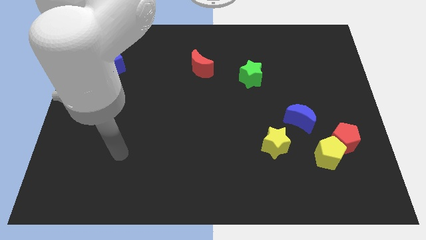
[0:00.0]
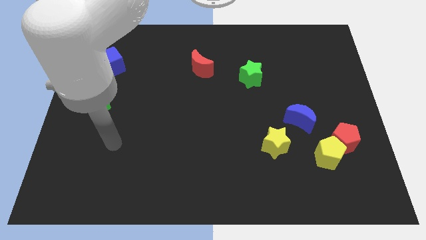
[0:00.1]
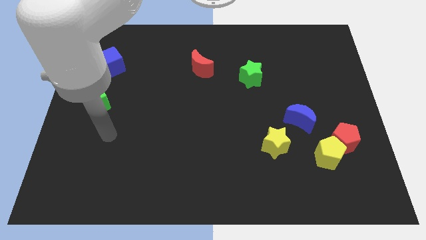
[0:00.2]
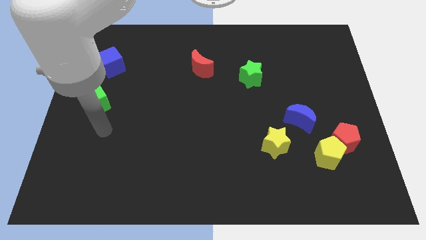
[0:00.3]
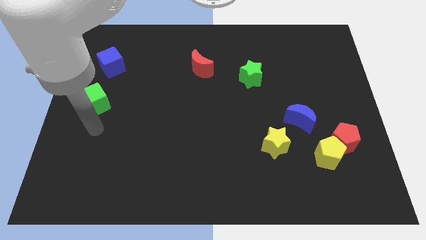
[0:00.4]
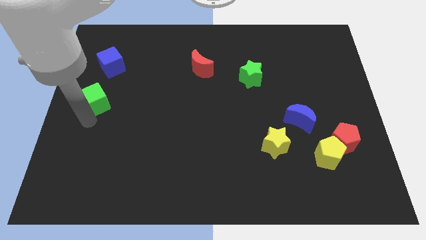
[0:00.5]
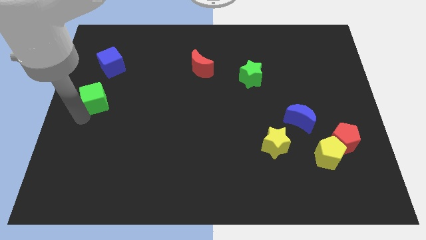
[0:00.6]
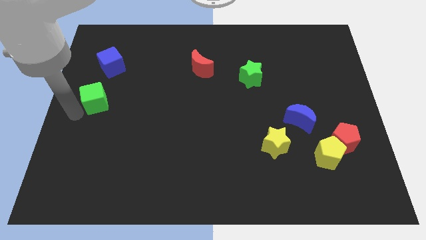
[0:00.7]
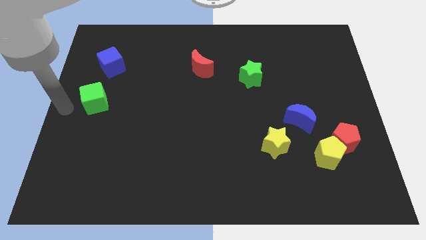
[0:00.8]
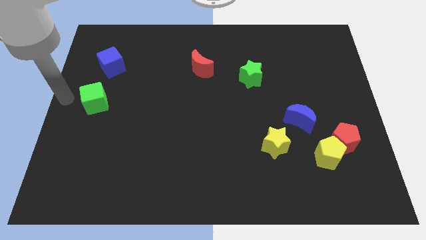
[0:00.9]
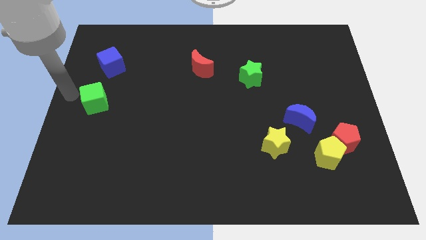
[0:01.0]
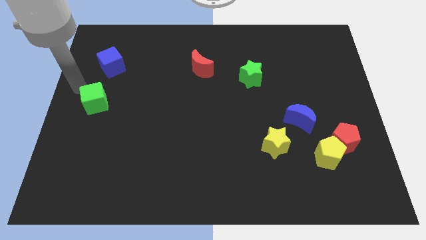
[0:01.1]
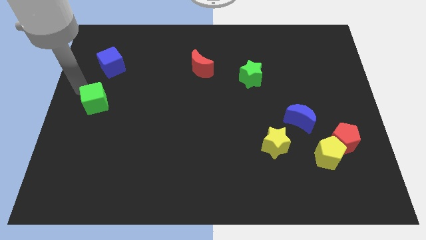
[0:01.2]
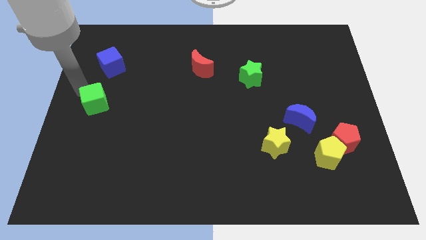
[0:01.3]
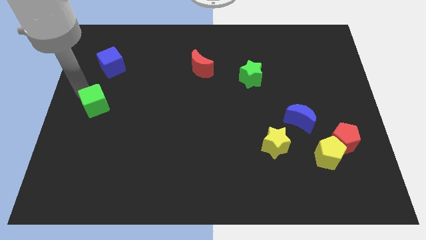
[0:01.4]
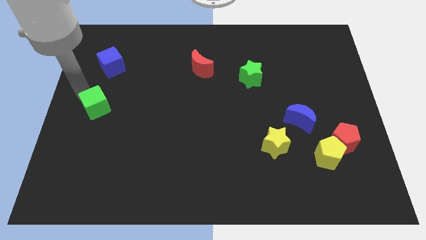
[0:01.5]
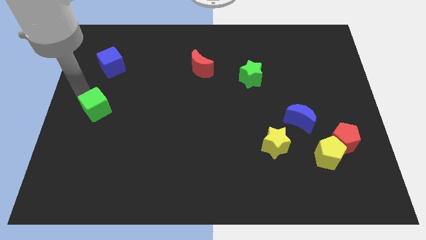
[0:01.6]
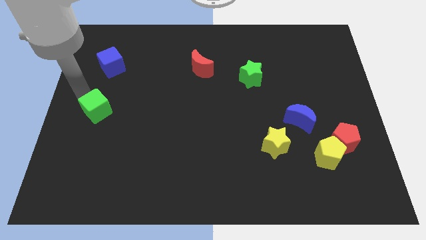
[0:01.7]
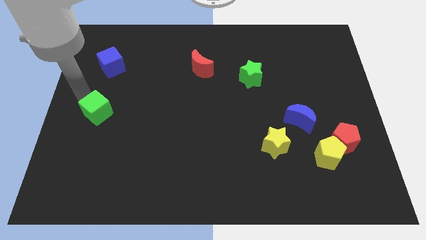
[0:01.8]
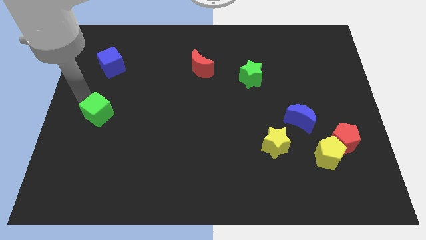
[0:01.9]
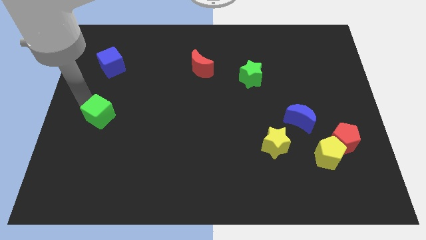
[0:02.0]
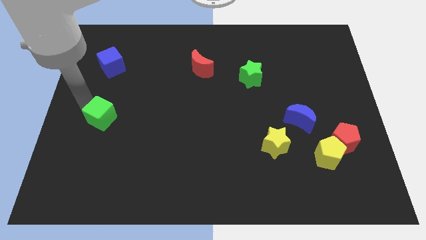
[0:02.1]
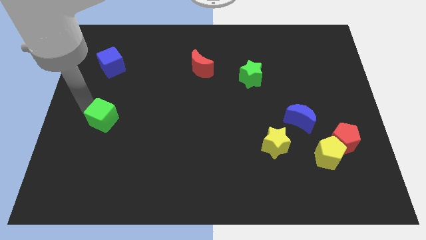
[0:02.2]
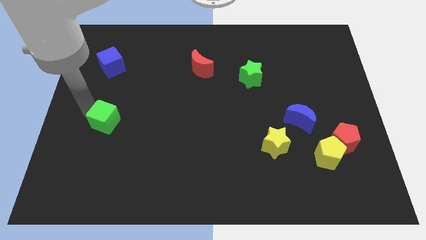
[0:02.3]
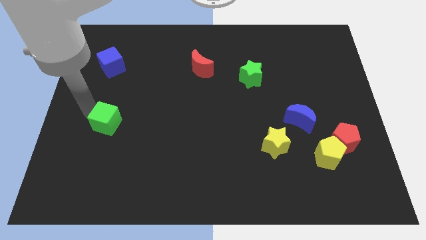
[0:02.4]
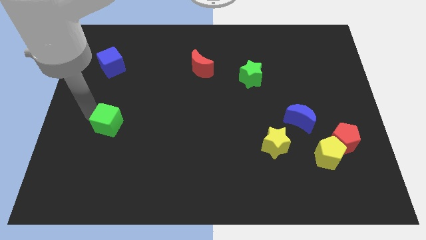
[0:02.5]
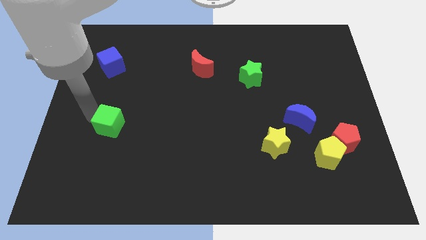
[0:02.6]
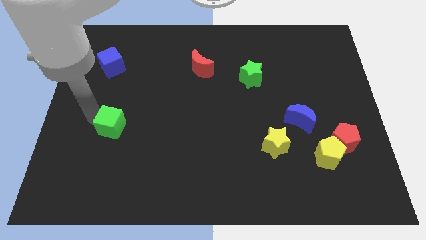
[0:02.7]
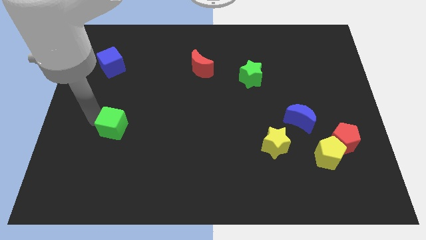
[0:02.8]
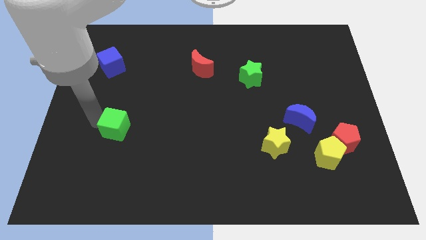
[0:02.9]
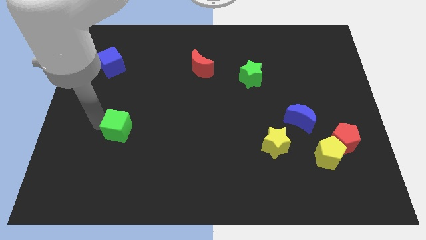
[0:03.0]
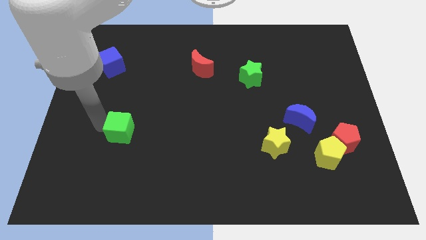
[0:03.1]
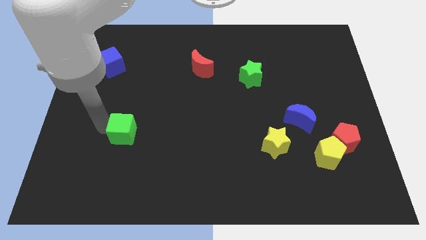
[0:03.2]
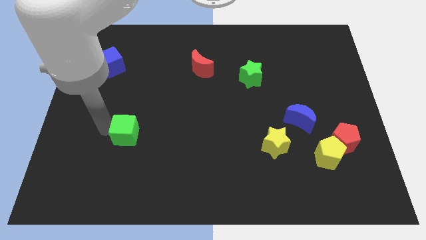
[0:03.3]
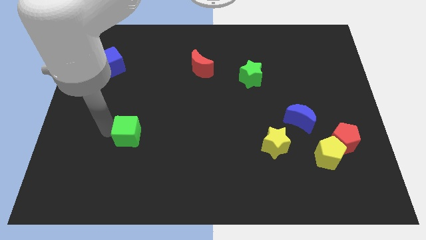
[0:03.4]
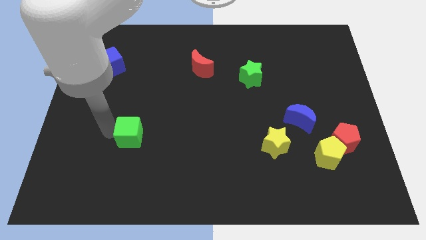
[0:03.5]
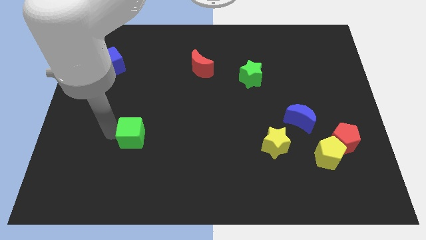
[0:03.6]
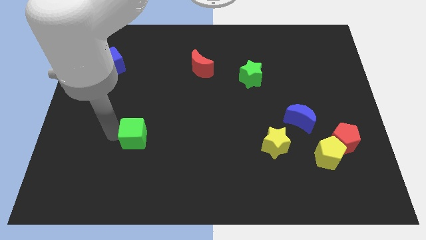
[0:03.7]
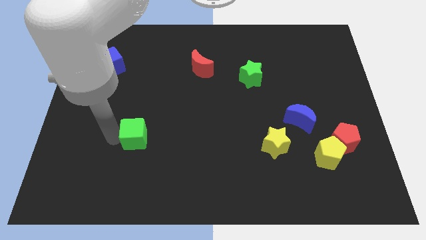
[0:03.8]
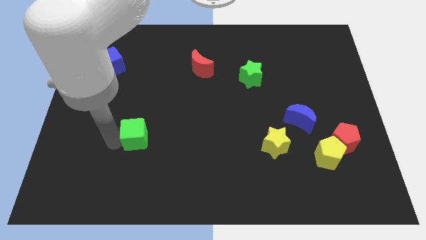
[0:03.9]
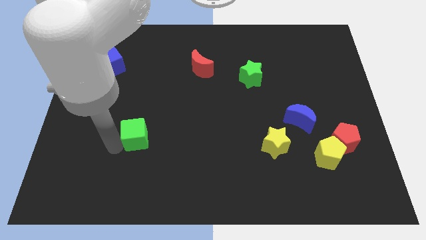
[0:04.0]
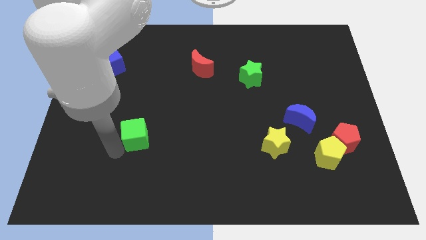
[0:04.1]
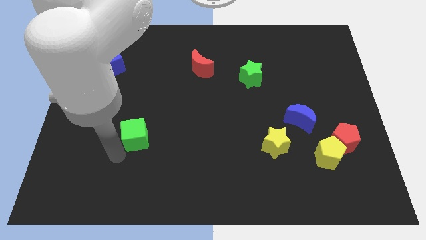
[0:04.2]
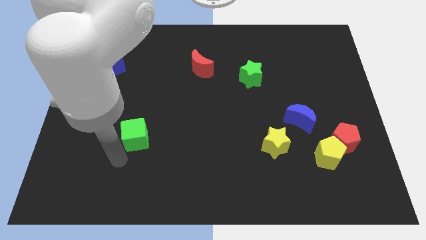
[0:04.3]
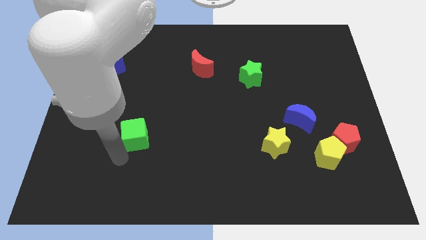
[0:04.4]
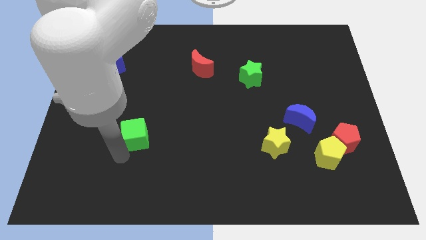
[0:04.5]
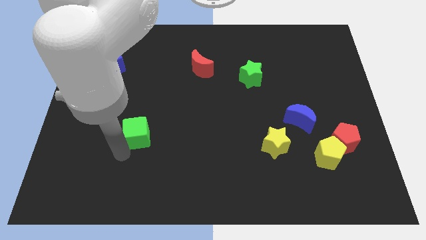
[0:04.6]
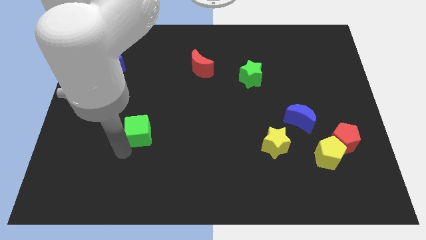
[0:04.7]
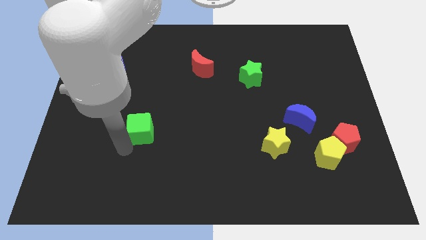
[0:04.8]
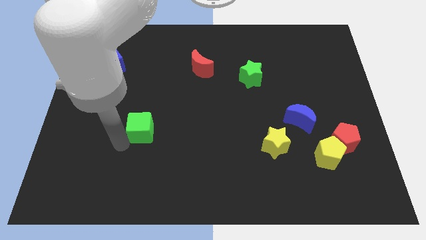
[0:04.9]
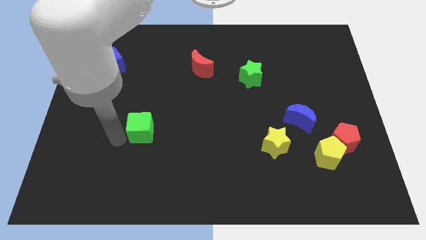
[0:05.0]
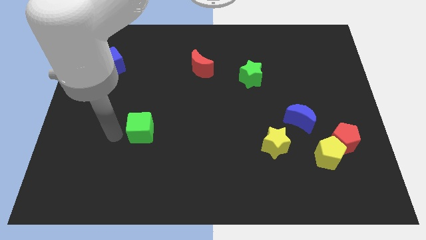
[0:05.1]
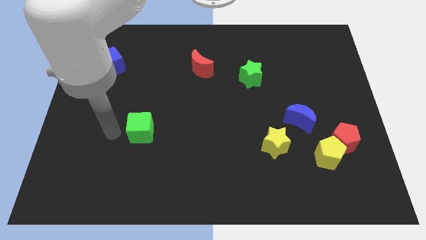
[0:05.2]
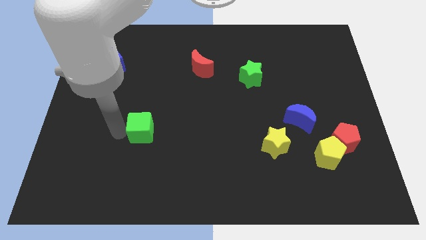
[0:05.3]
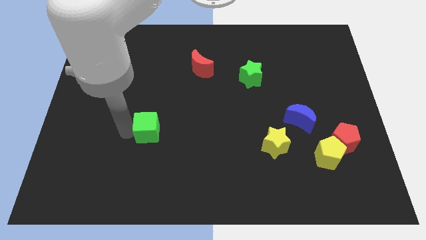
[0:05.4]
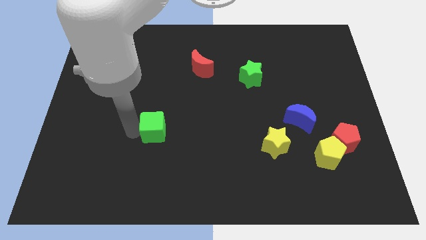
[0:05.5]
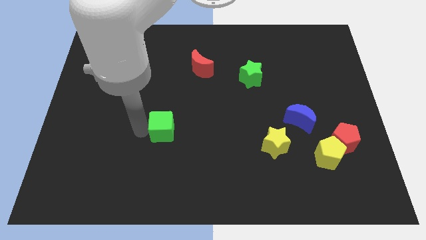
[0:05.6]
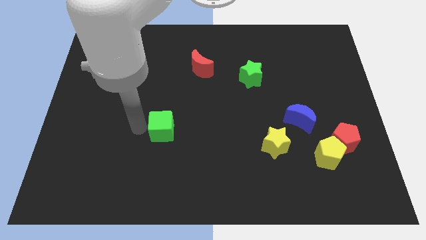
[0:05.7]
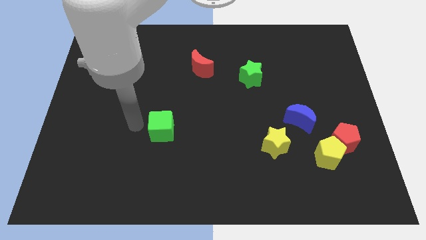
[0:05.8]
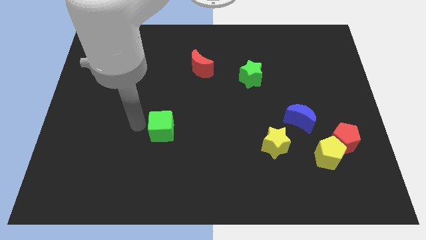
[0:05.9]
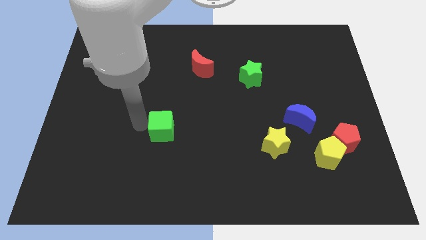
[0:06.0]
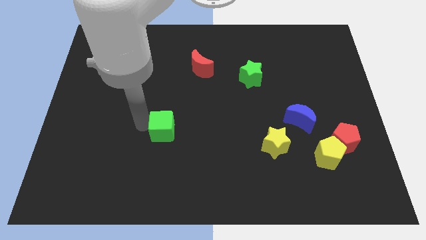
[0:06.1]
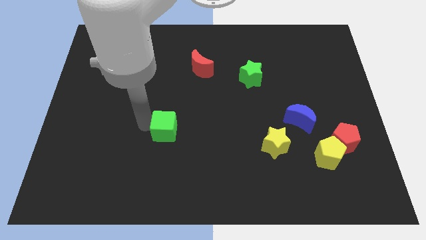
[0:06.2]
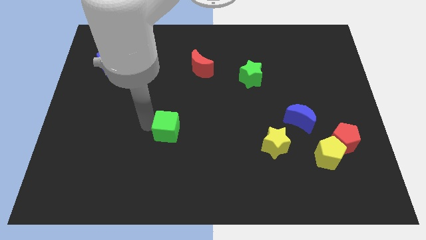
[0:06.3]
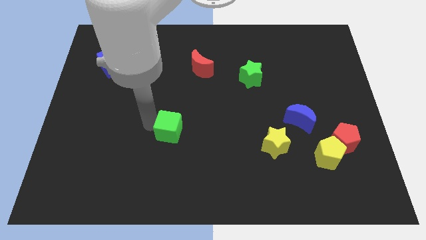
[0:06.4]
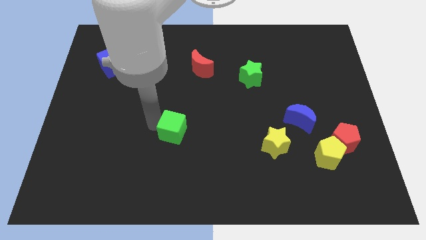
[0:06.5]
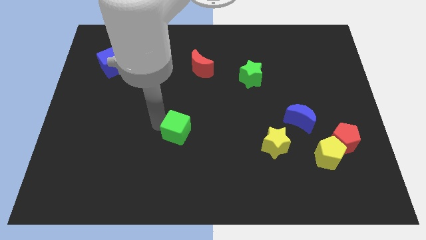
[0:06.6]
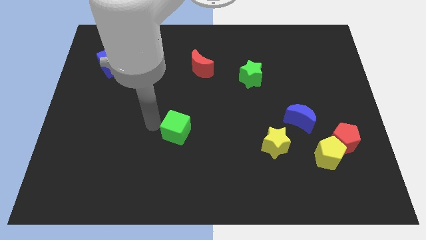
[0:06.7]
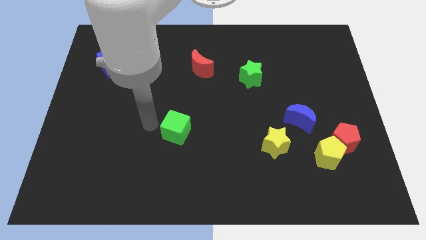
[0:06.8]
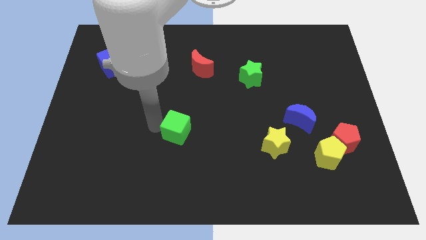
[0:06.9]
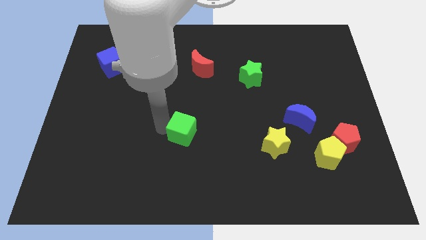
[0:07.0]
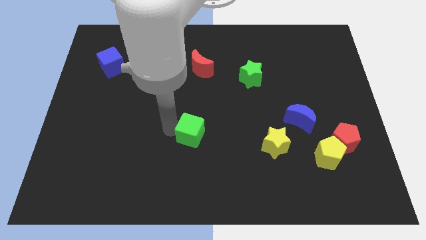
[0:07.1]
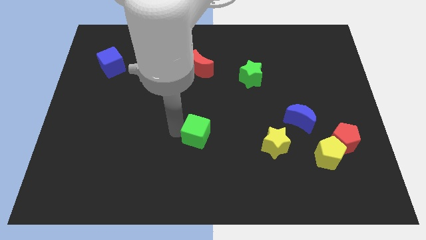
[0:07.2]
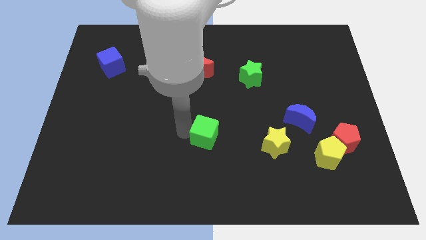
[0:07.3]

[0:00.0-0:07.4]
slide the green cube to the left of the yellow star
